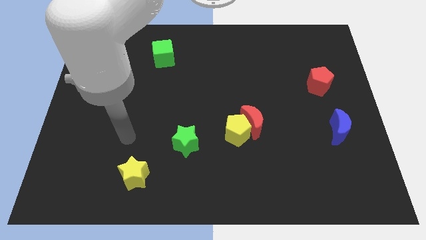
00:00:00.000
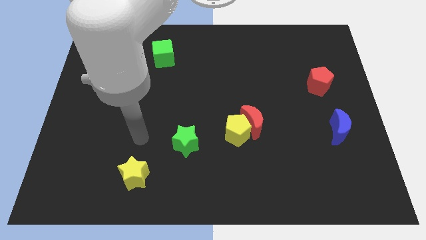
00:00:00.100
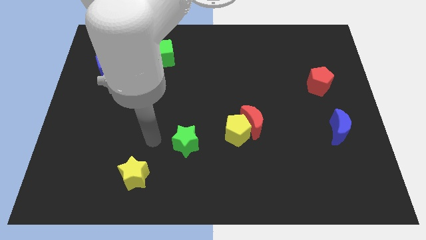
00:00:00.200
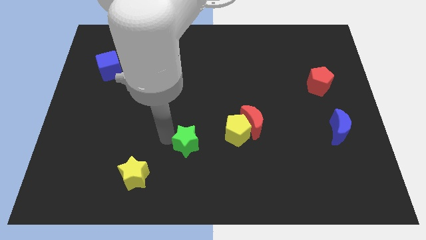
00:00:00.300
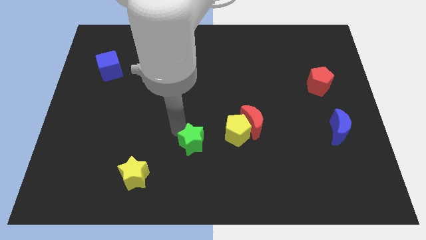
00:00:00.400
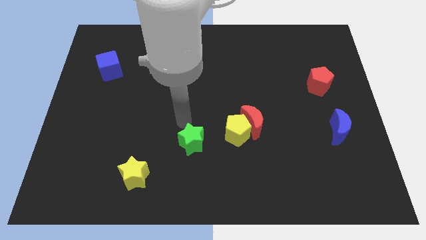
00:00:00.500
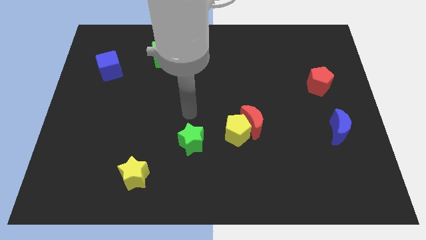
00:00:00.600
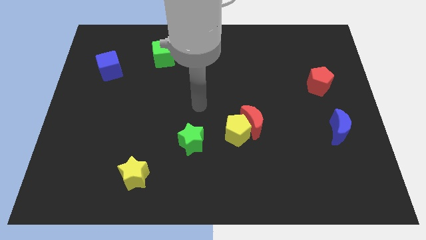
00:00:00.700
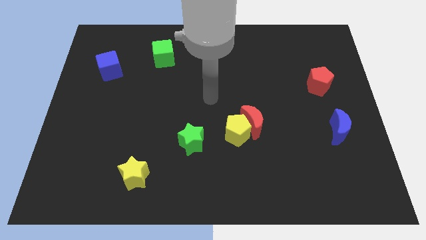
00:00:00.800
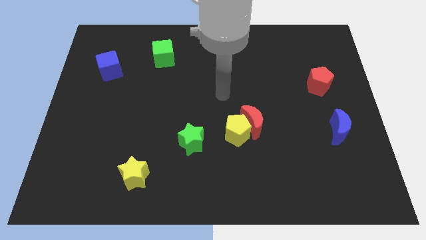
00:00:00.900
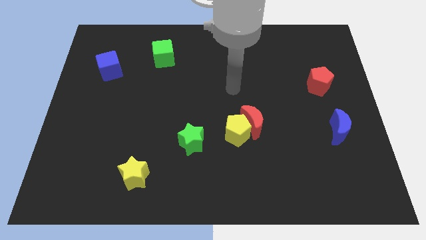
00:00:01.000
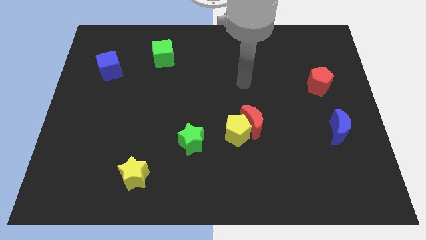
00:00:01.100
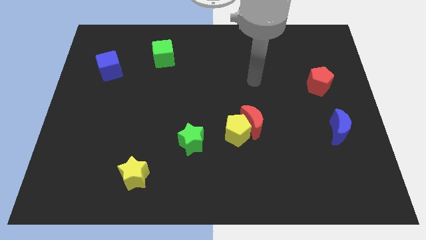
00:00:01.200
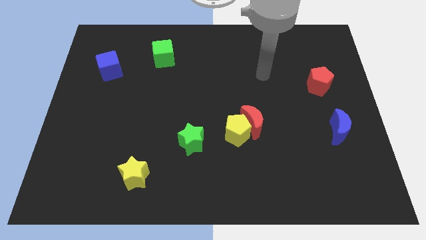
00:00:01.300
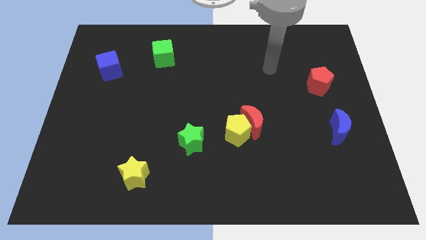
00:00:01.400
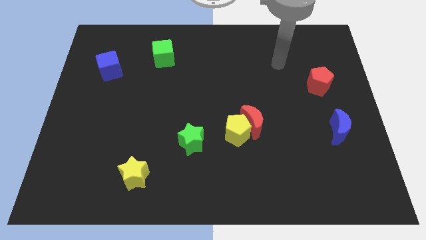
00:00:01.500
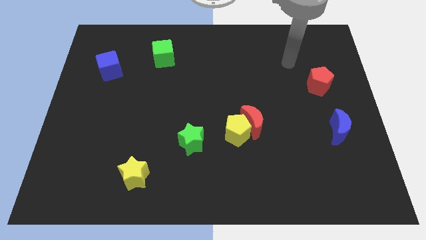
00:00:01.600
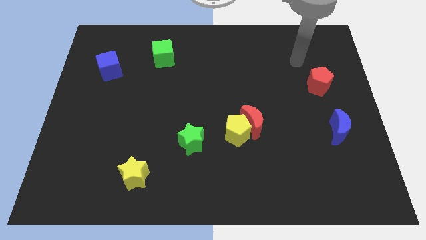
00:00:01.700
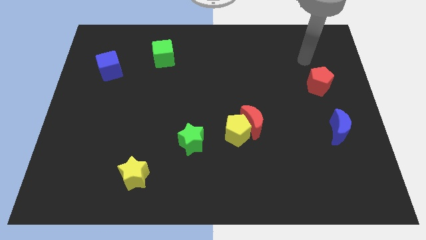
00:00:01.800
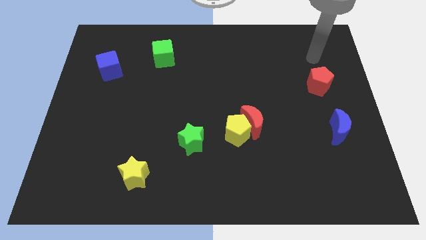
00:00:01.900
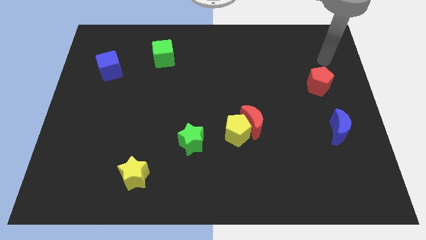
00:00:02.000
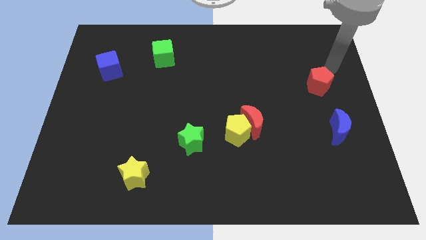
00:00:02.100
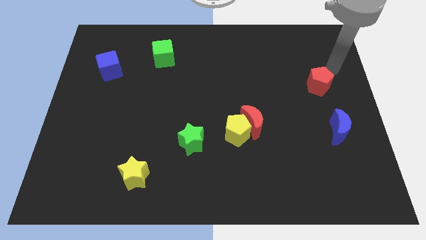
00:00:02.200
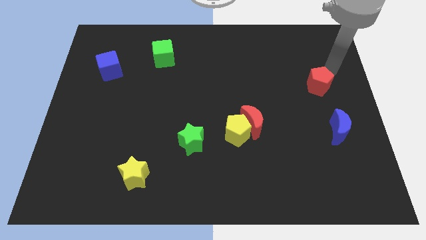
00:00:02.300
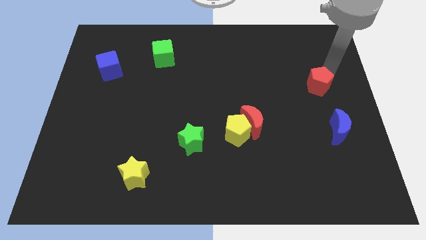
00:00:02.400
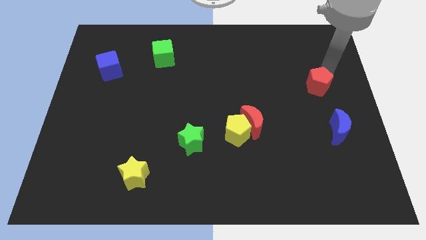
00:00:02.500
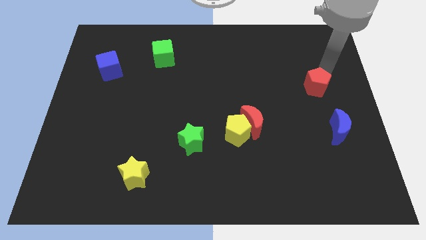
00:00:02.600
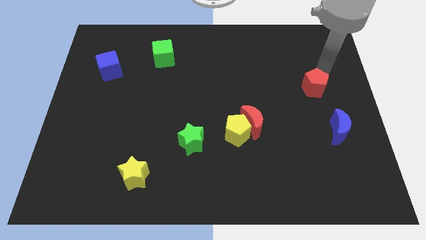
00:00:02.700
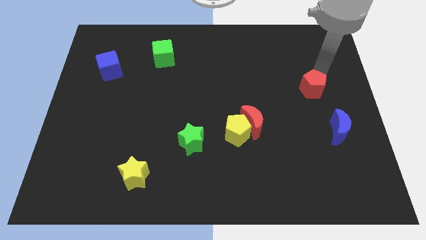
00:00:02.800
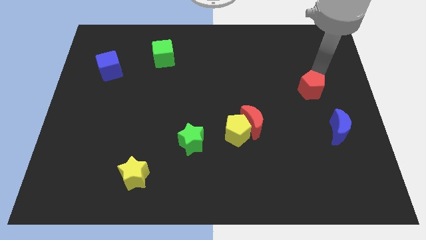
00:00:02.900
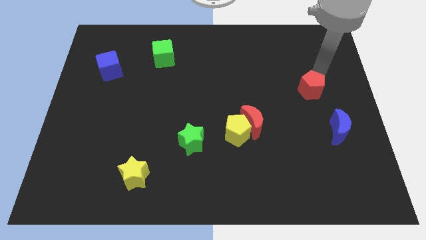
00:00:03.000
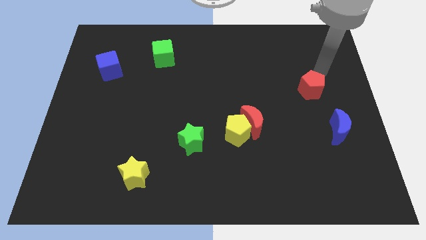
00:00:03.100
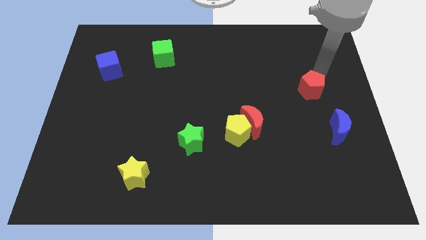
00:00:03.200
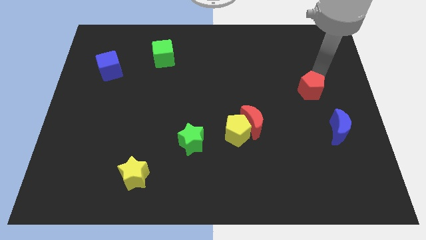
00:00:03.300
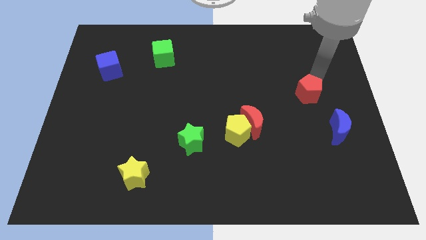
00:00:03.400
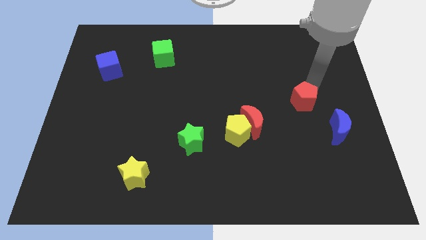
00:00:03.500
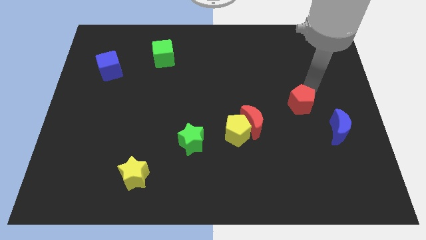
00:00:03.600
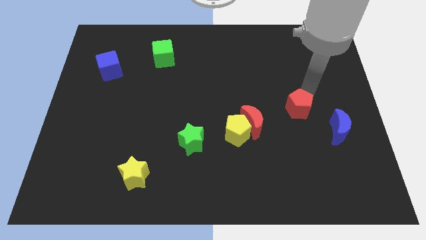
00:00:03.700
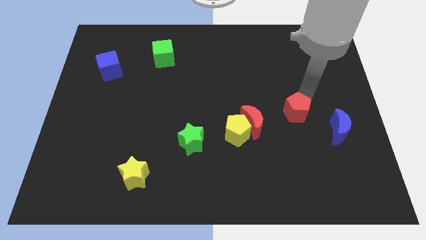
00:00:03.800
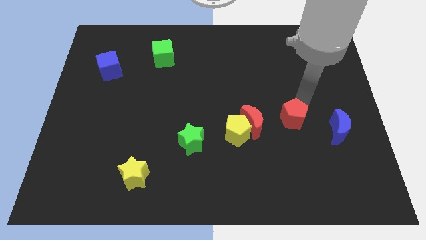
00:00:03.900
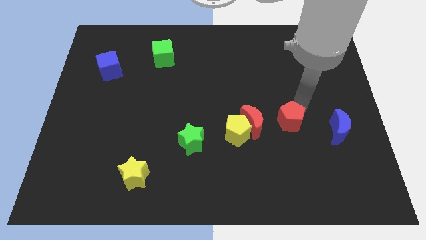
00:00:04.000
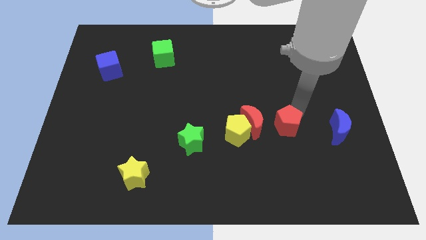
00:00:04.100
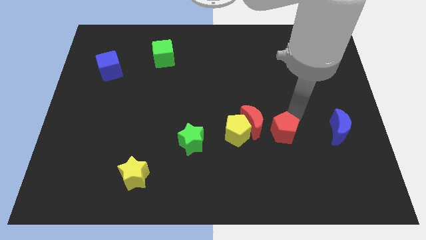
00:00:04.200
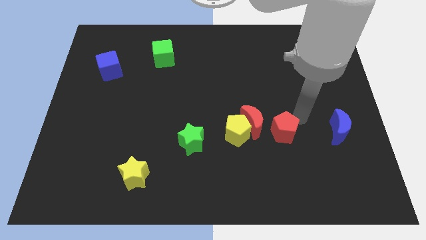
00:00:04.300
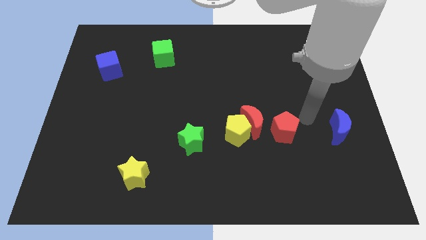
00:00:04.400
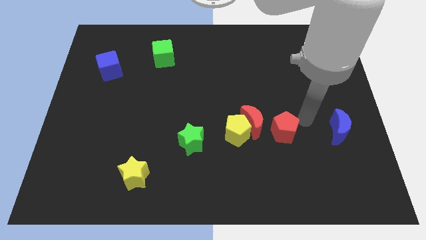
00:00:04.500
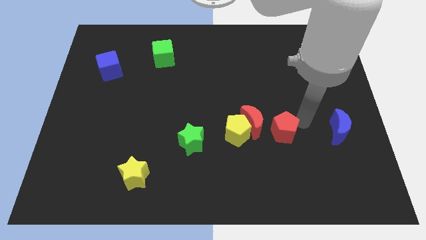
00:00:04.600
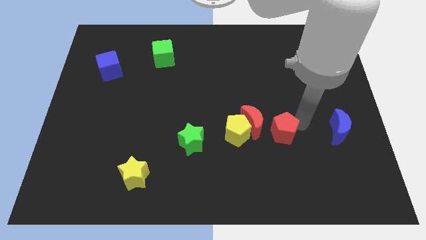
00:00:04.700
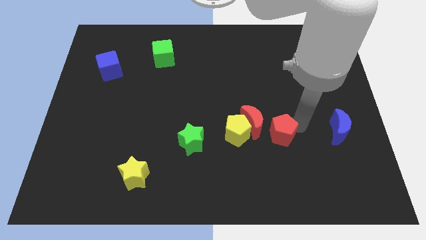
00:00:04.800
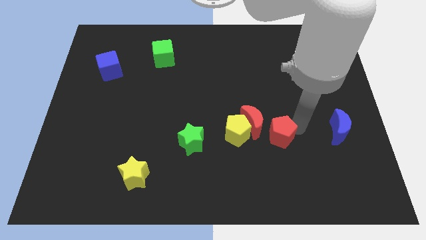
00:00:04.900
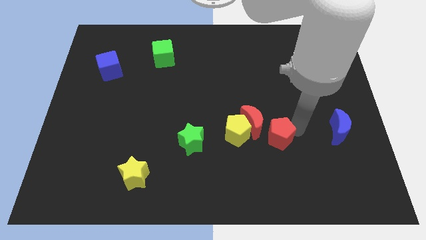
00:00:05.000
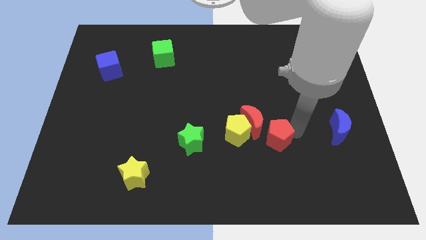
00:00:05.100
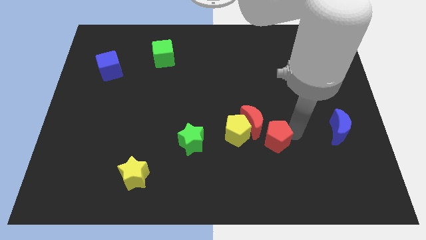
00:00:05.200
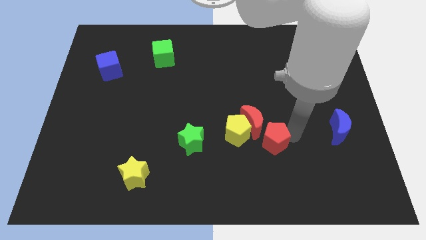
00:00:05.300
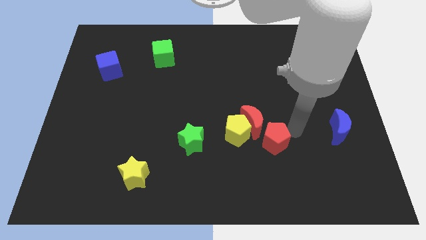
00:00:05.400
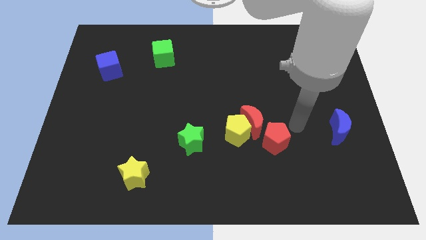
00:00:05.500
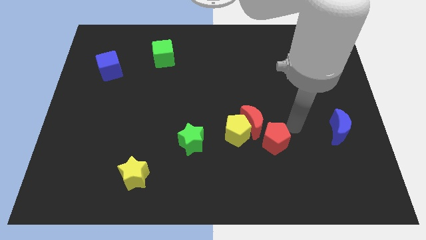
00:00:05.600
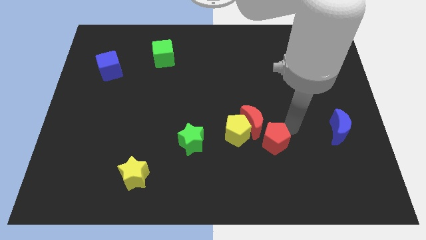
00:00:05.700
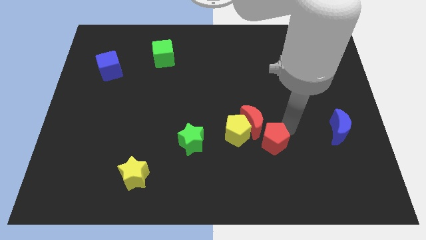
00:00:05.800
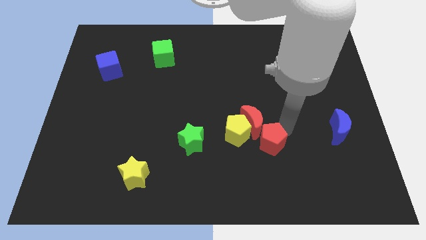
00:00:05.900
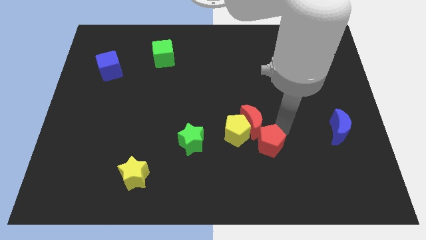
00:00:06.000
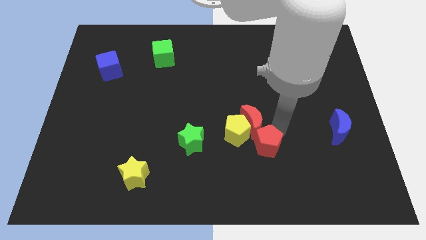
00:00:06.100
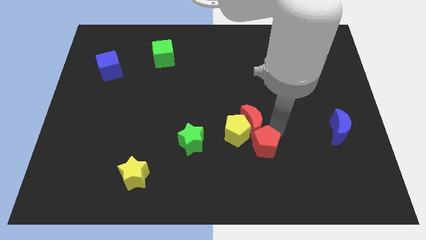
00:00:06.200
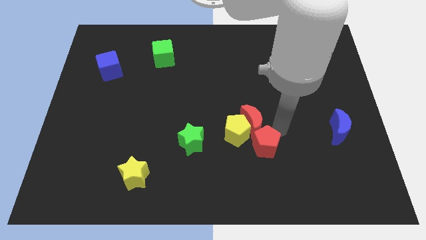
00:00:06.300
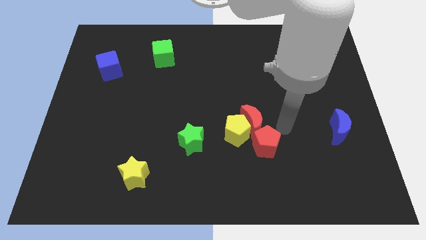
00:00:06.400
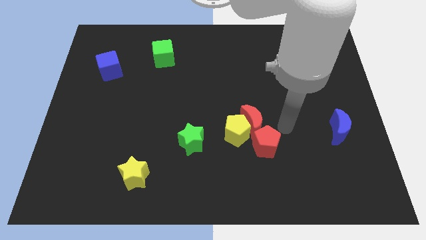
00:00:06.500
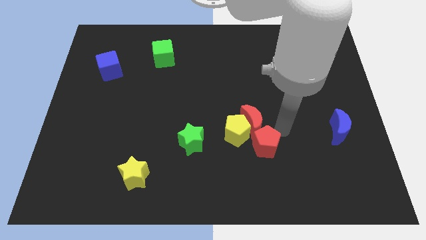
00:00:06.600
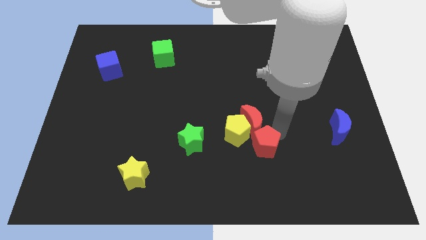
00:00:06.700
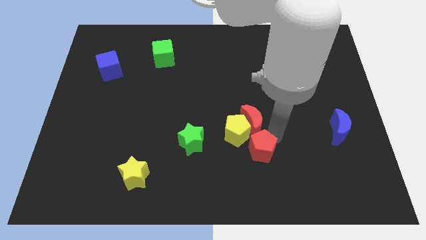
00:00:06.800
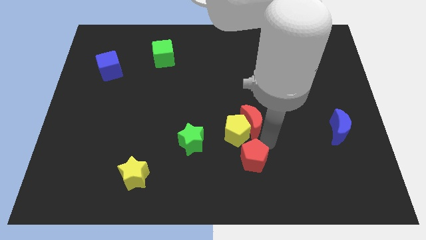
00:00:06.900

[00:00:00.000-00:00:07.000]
slide the red pentagon below the yellow pentagon

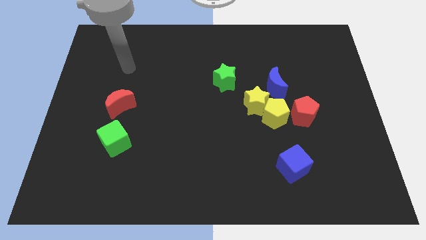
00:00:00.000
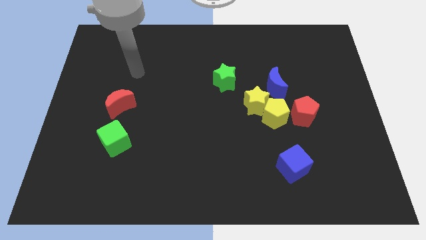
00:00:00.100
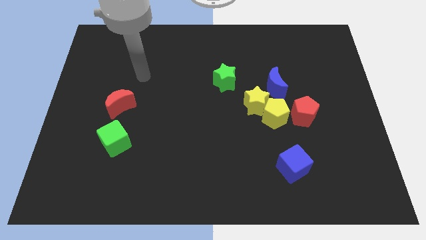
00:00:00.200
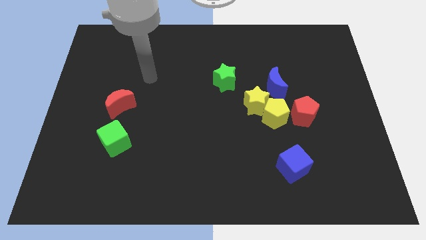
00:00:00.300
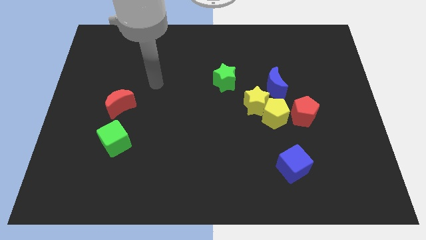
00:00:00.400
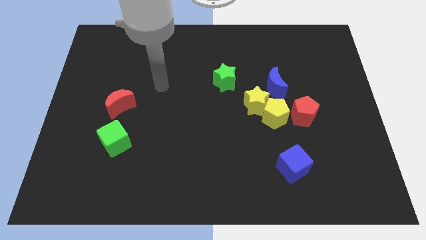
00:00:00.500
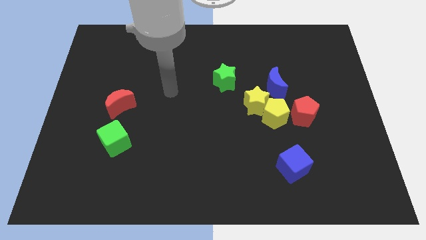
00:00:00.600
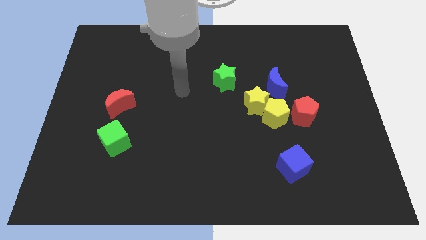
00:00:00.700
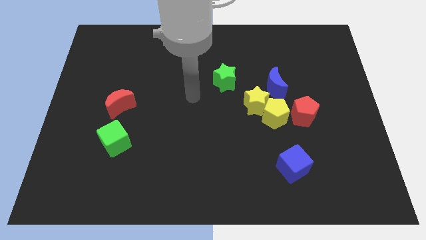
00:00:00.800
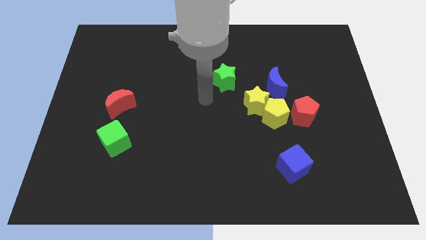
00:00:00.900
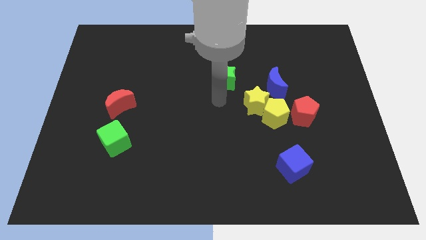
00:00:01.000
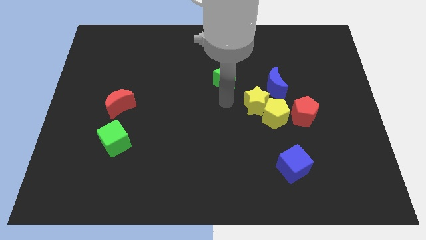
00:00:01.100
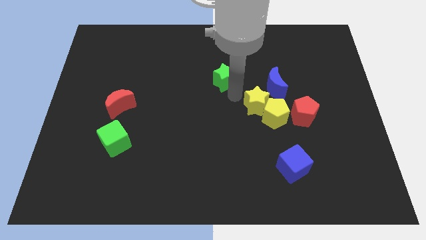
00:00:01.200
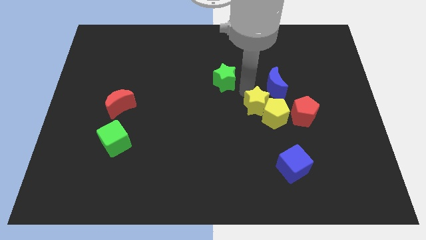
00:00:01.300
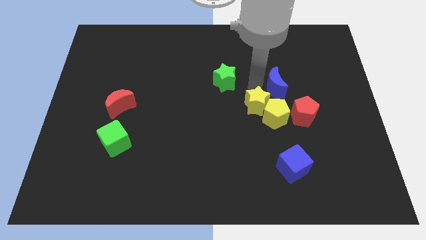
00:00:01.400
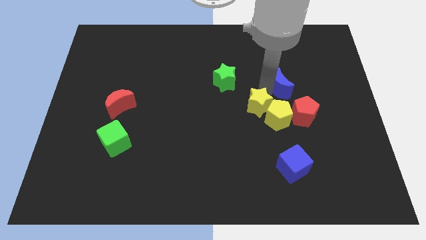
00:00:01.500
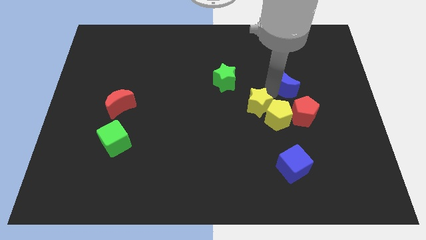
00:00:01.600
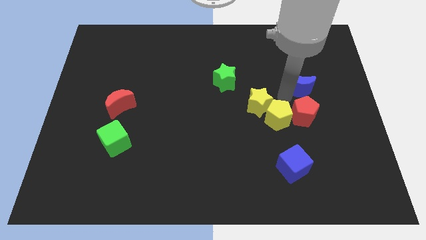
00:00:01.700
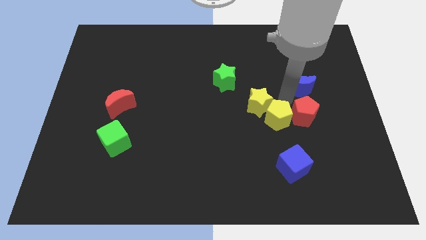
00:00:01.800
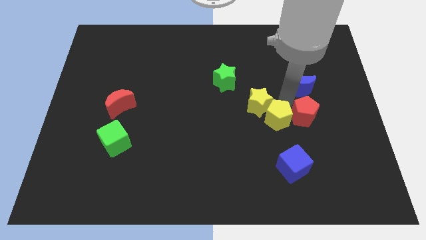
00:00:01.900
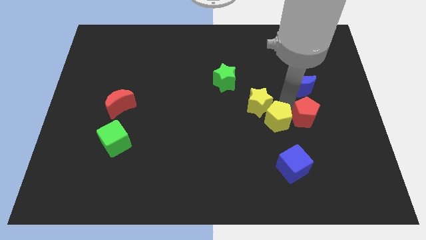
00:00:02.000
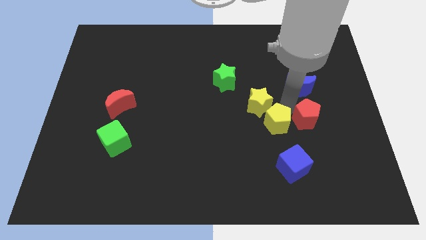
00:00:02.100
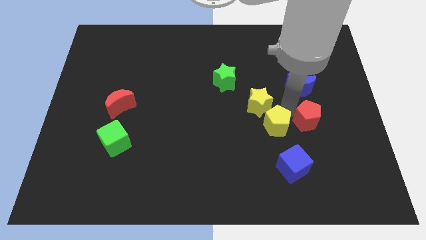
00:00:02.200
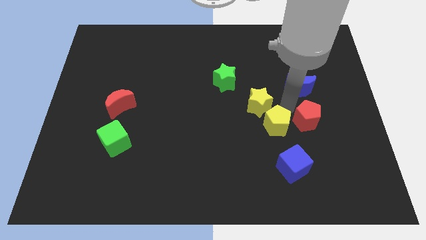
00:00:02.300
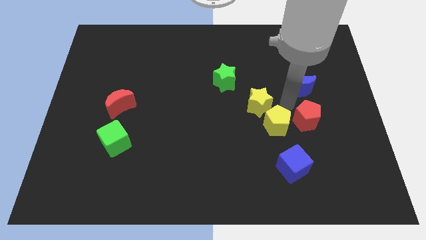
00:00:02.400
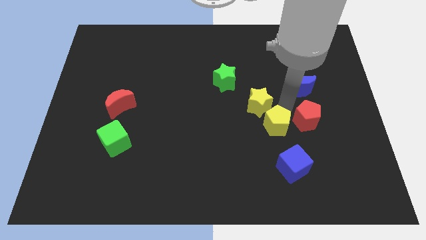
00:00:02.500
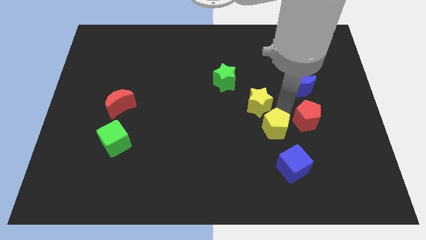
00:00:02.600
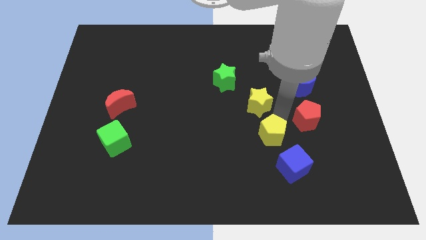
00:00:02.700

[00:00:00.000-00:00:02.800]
push the yellow pentagon to the top left of the blue cube
